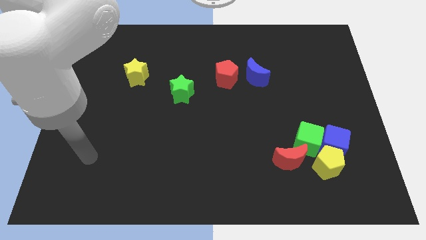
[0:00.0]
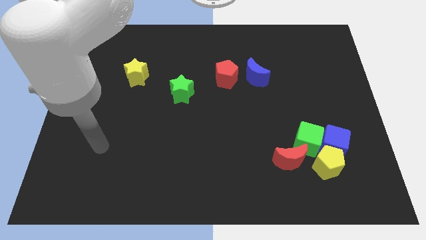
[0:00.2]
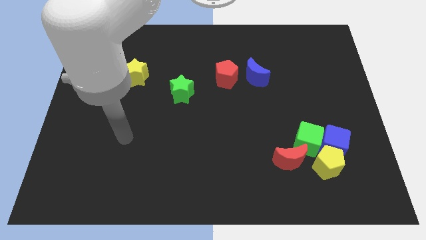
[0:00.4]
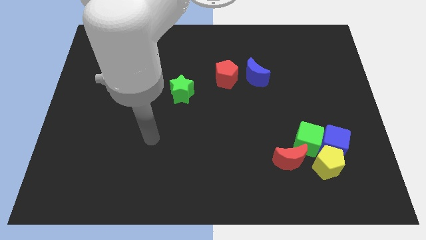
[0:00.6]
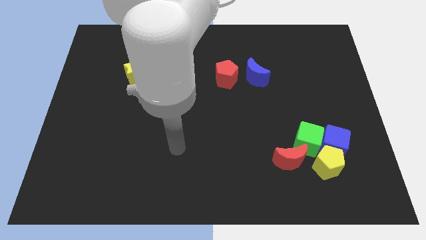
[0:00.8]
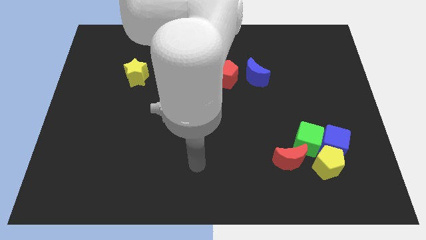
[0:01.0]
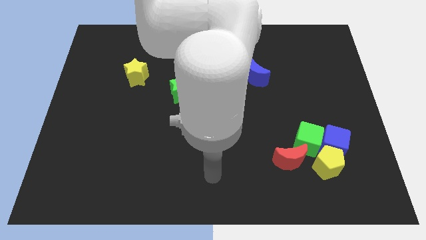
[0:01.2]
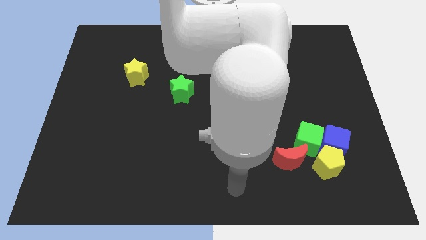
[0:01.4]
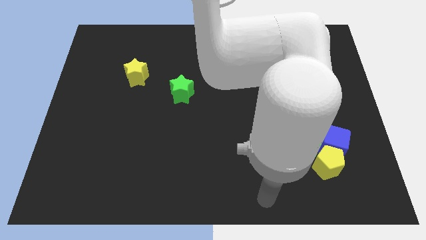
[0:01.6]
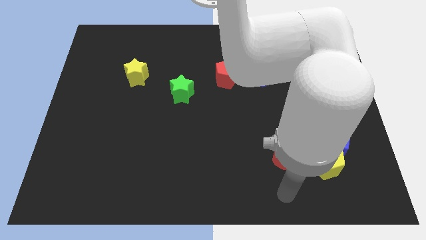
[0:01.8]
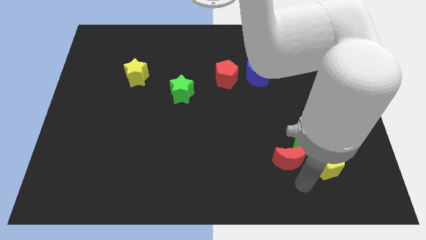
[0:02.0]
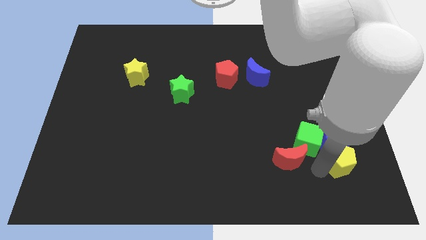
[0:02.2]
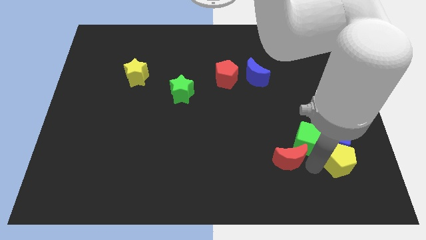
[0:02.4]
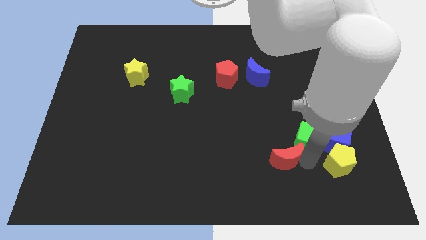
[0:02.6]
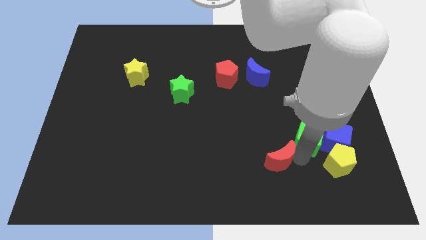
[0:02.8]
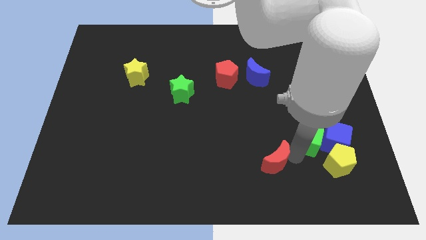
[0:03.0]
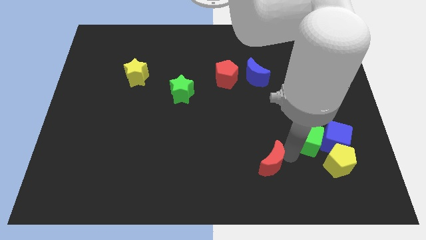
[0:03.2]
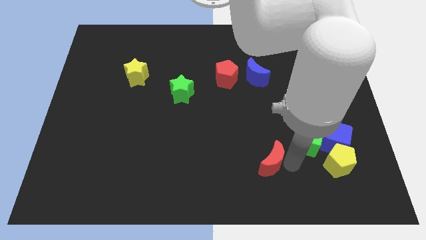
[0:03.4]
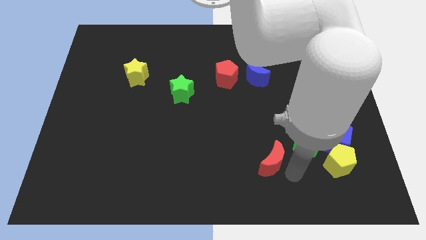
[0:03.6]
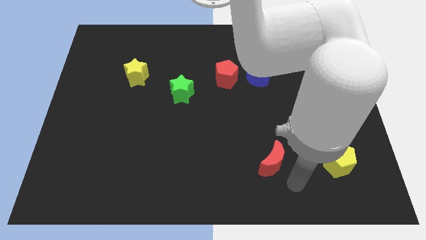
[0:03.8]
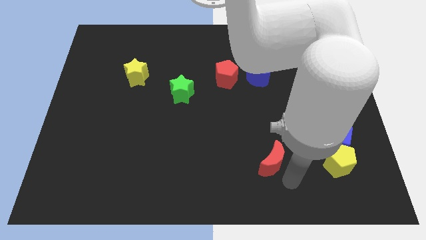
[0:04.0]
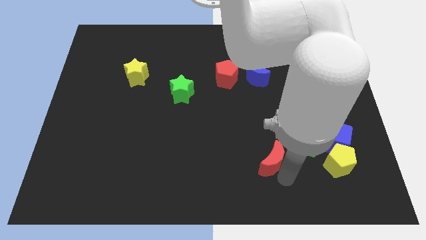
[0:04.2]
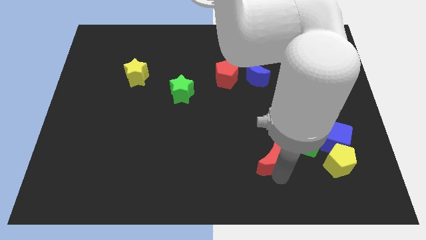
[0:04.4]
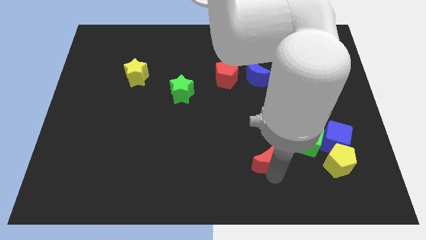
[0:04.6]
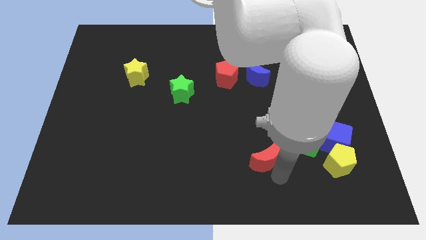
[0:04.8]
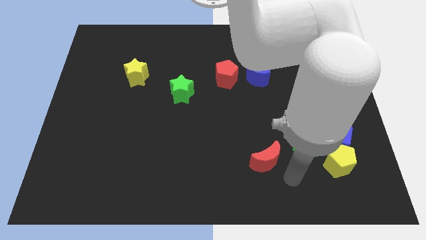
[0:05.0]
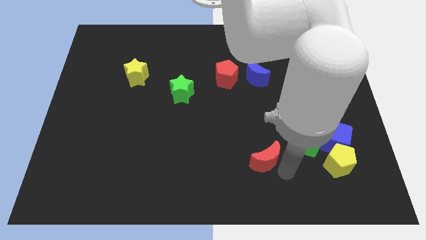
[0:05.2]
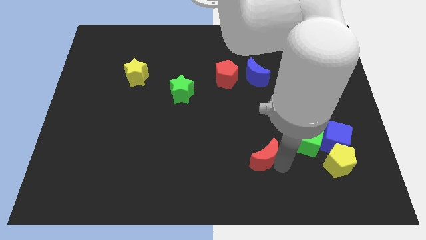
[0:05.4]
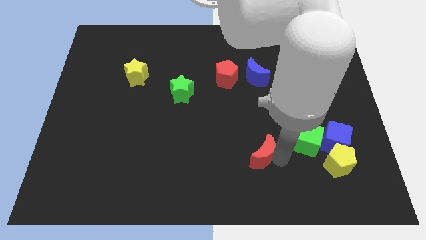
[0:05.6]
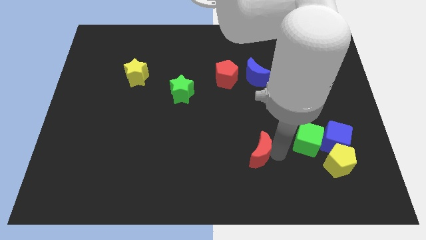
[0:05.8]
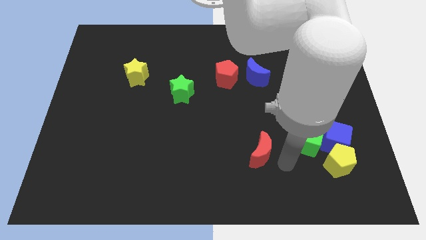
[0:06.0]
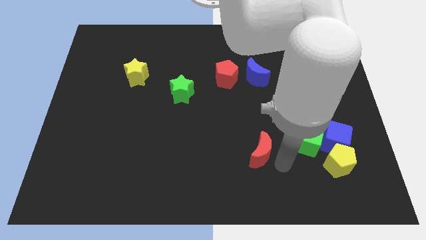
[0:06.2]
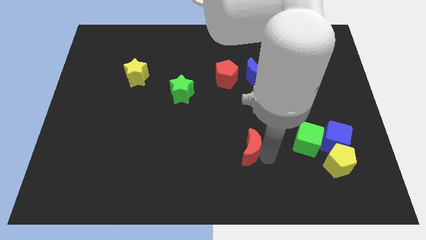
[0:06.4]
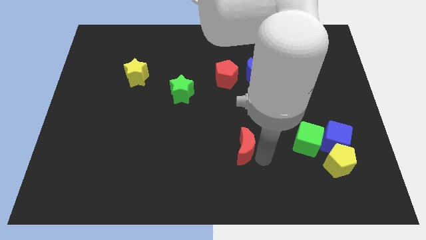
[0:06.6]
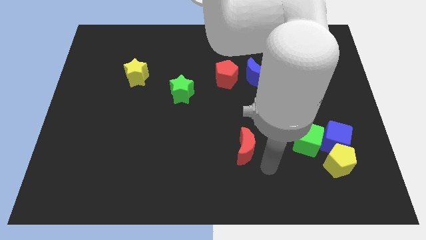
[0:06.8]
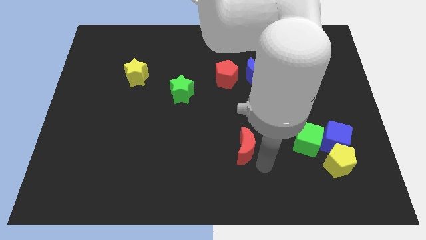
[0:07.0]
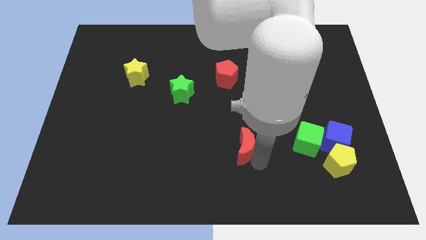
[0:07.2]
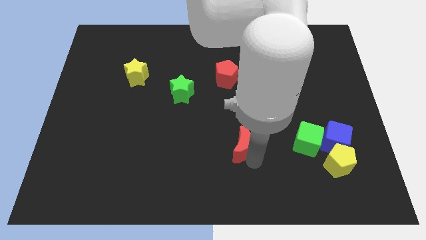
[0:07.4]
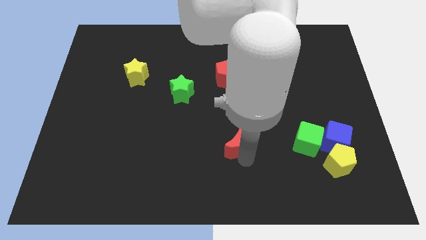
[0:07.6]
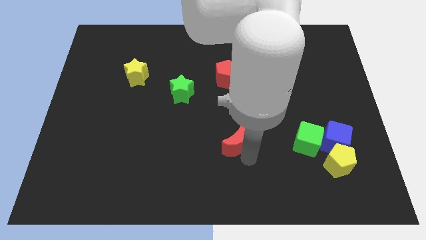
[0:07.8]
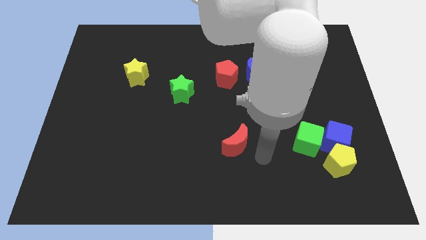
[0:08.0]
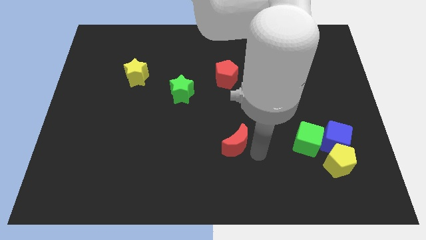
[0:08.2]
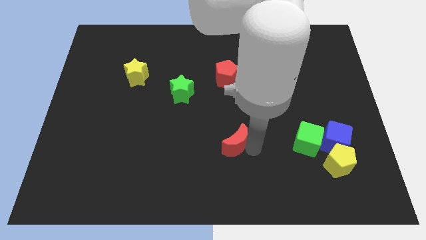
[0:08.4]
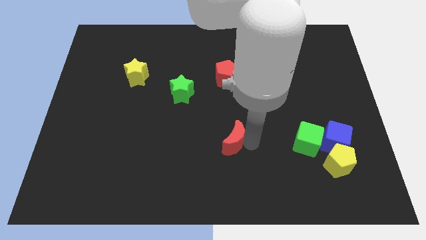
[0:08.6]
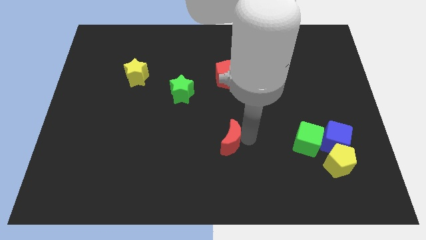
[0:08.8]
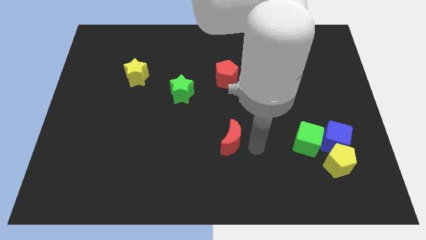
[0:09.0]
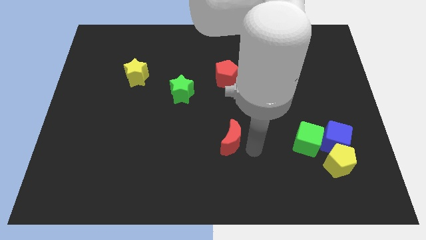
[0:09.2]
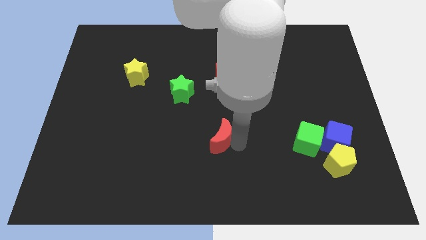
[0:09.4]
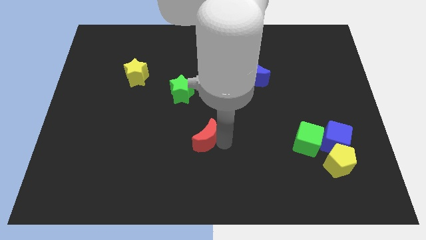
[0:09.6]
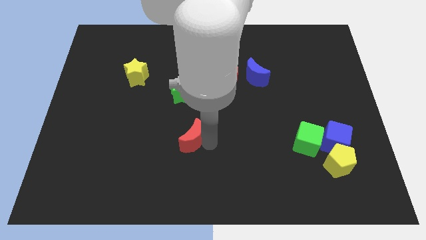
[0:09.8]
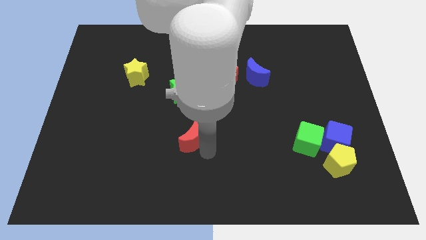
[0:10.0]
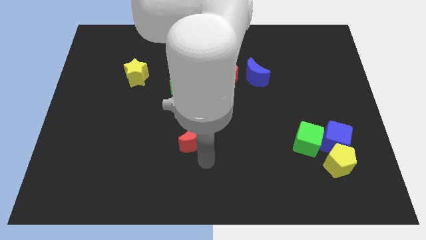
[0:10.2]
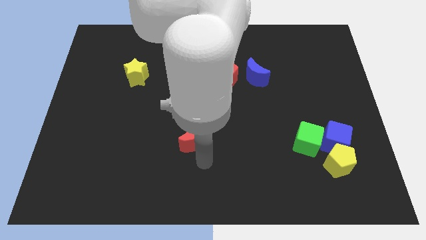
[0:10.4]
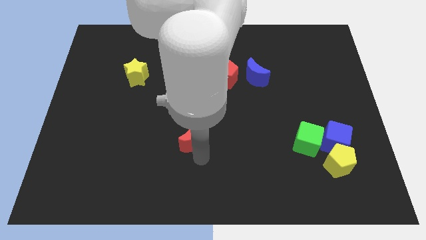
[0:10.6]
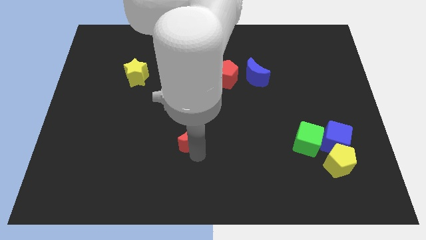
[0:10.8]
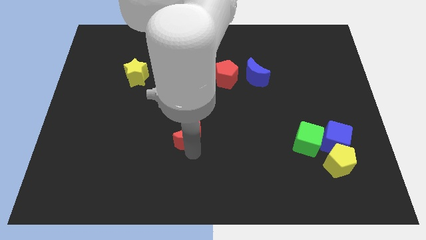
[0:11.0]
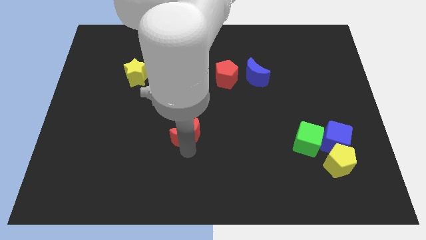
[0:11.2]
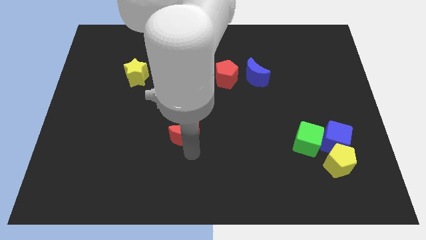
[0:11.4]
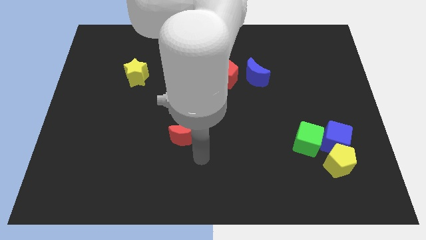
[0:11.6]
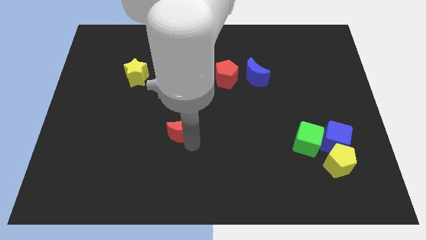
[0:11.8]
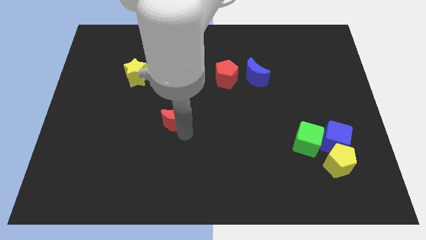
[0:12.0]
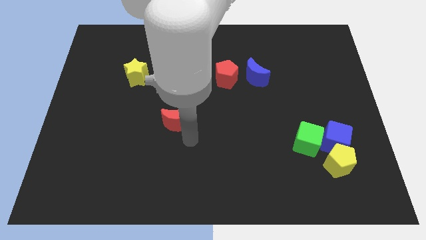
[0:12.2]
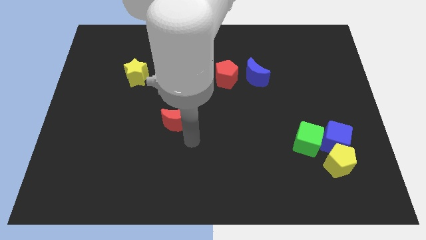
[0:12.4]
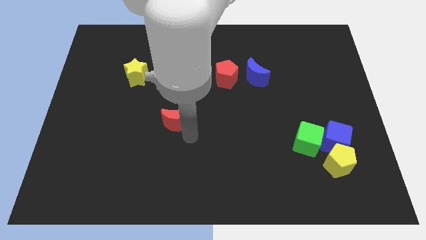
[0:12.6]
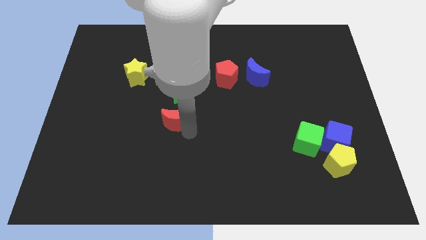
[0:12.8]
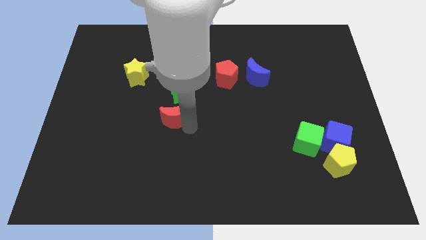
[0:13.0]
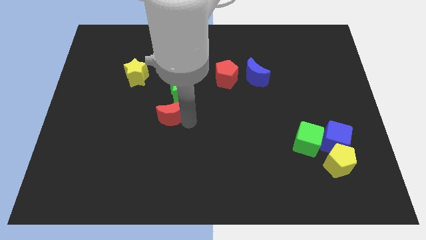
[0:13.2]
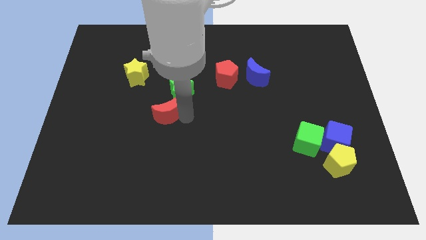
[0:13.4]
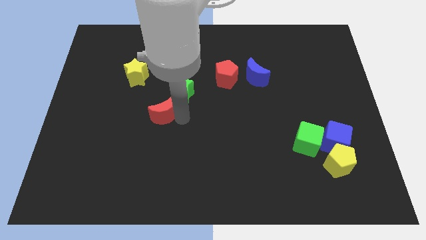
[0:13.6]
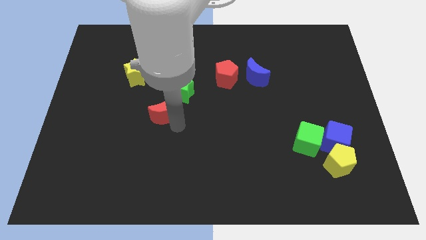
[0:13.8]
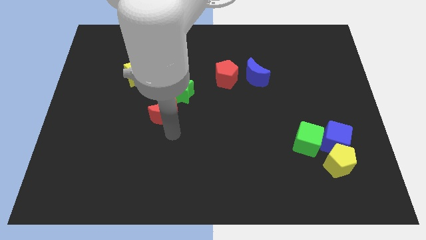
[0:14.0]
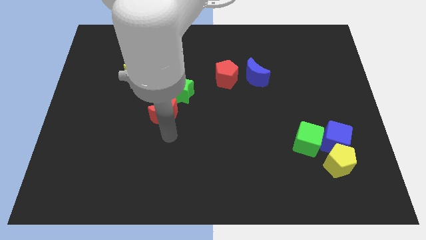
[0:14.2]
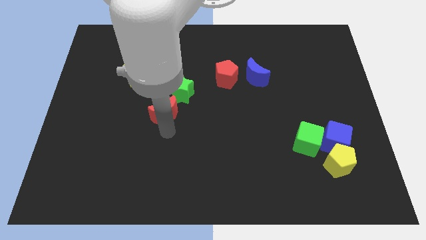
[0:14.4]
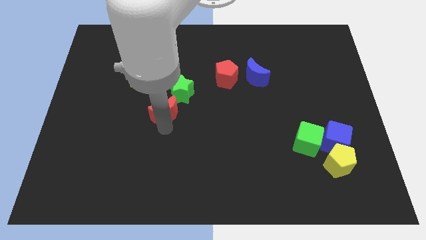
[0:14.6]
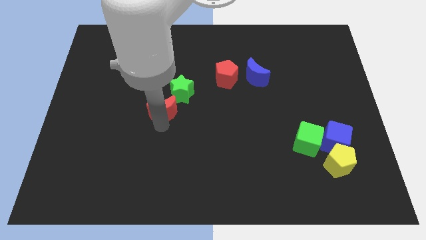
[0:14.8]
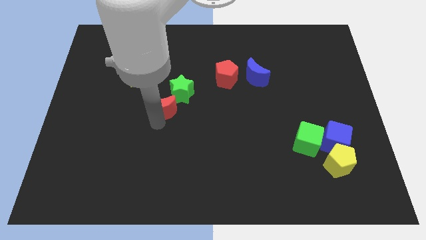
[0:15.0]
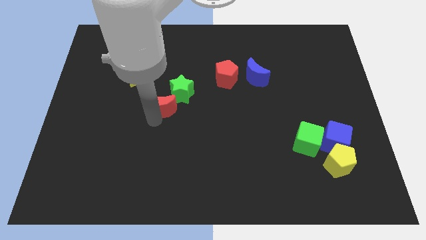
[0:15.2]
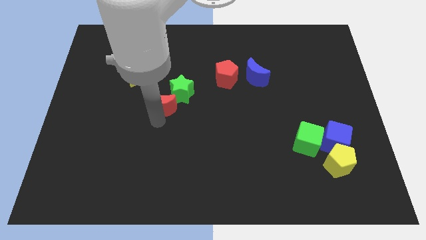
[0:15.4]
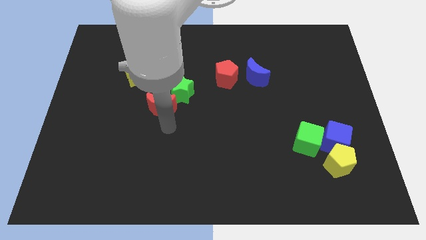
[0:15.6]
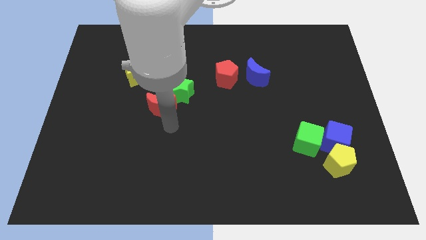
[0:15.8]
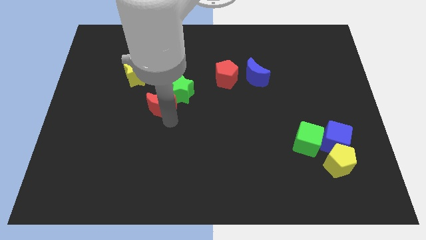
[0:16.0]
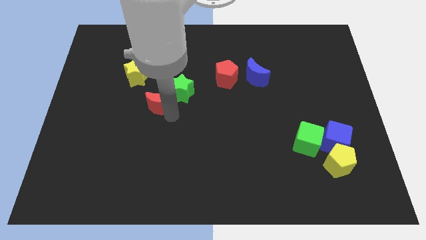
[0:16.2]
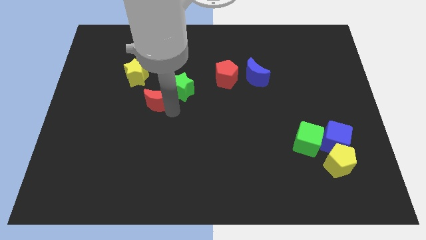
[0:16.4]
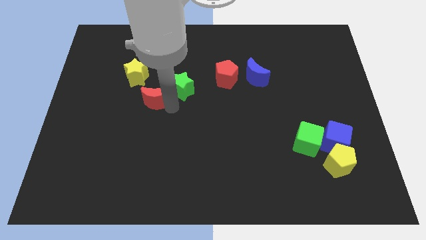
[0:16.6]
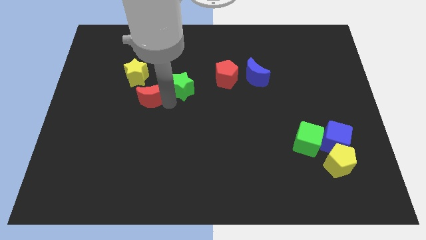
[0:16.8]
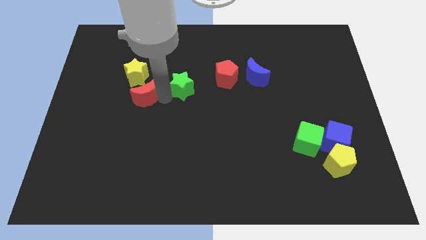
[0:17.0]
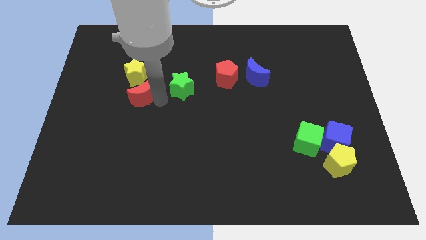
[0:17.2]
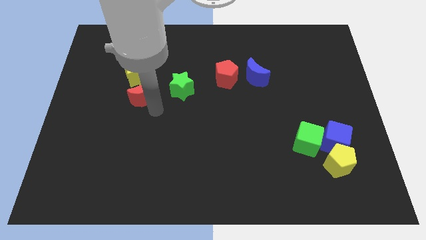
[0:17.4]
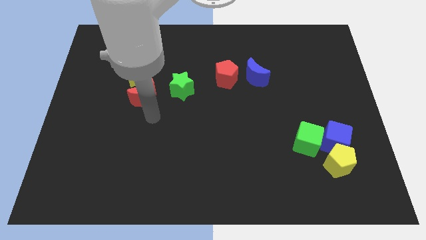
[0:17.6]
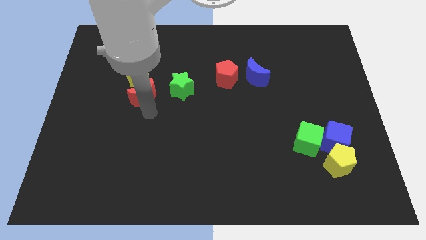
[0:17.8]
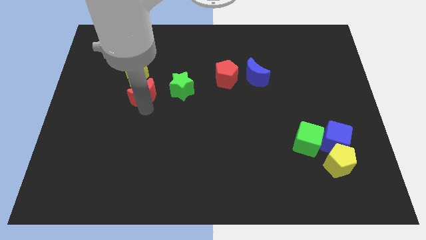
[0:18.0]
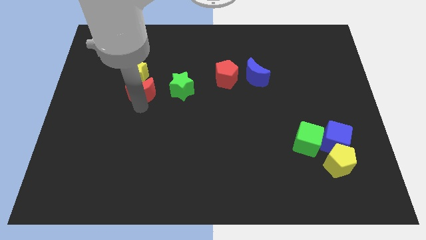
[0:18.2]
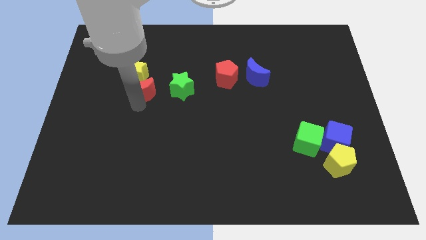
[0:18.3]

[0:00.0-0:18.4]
slide the red moon next to the yellow star
